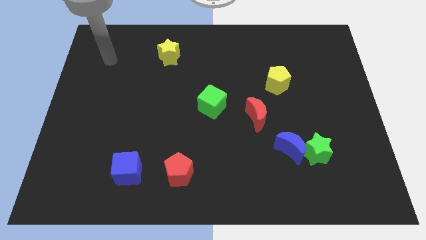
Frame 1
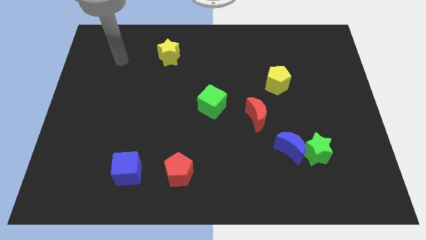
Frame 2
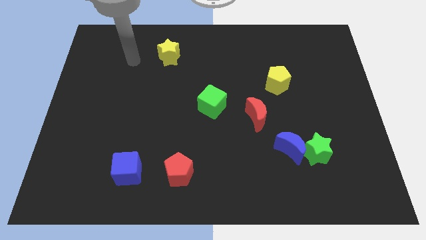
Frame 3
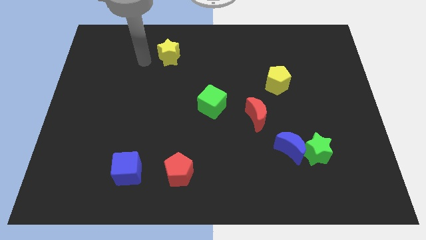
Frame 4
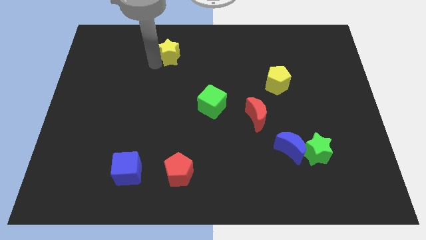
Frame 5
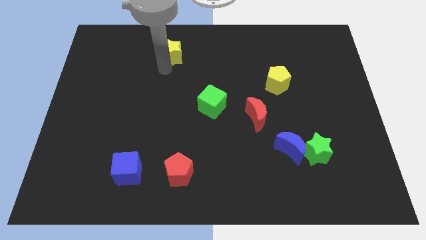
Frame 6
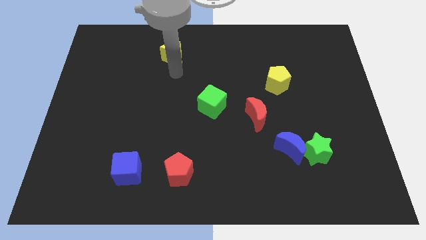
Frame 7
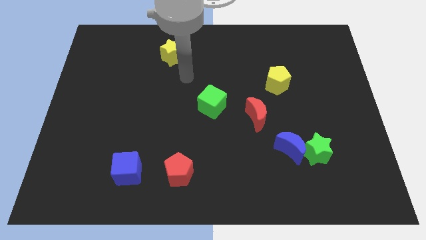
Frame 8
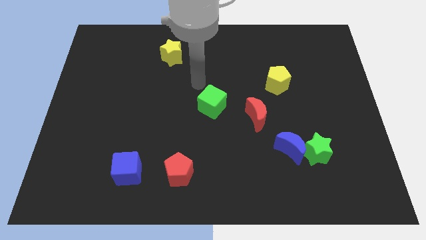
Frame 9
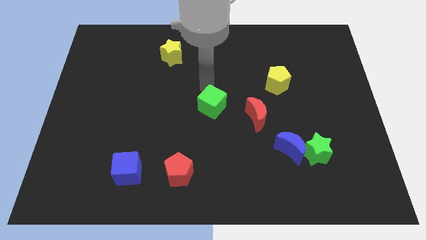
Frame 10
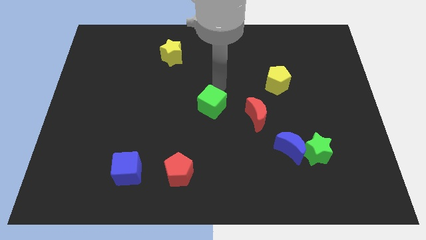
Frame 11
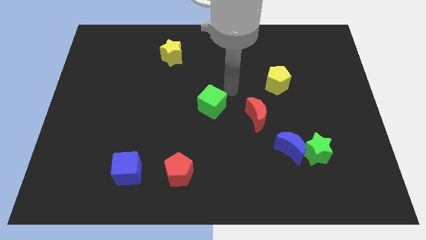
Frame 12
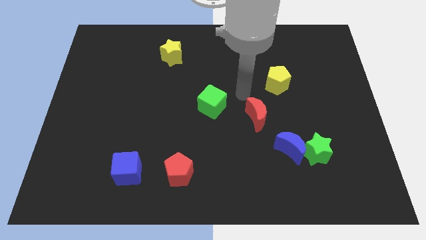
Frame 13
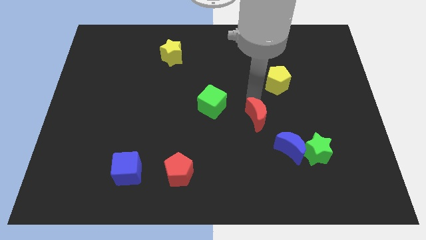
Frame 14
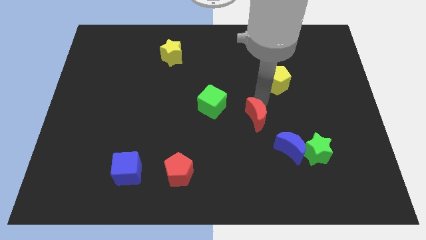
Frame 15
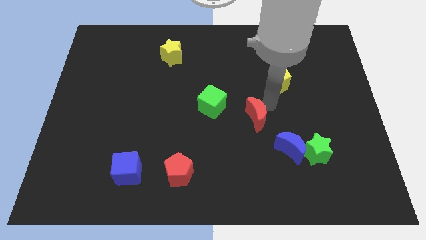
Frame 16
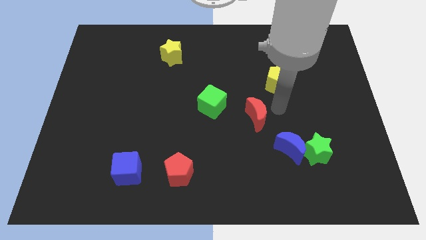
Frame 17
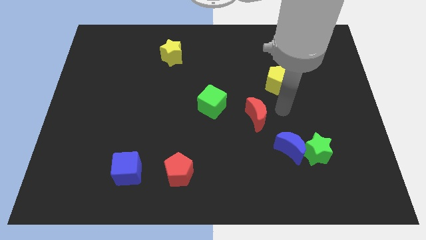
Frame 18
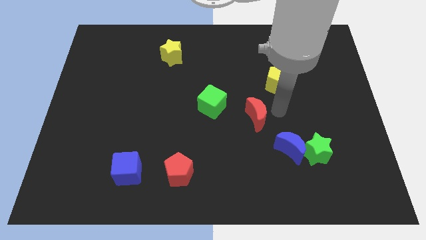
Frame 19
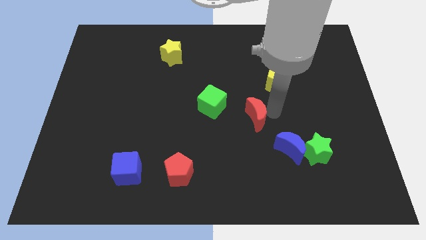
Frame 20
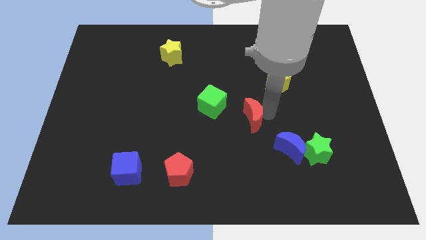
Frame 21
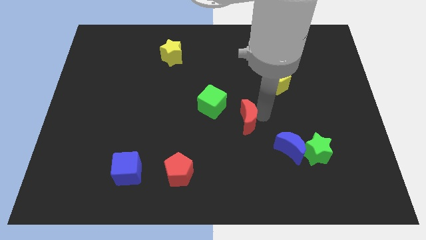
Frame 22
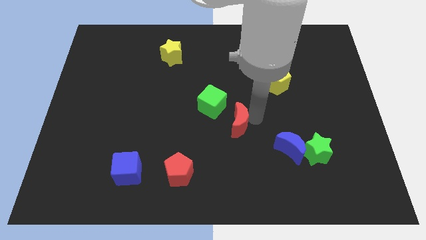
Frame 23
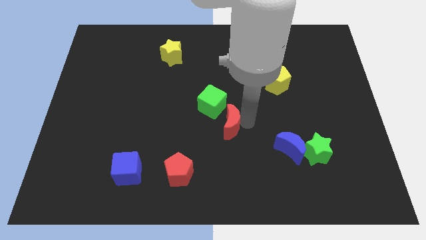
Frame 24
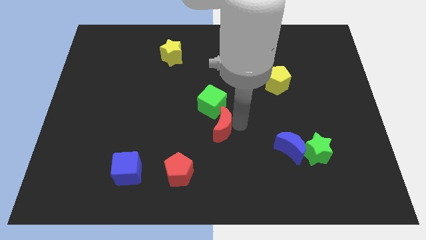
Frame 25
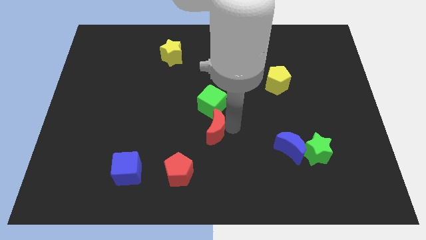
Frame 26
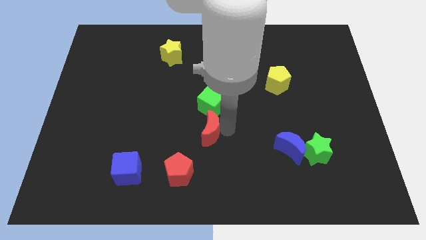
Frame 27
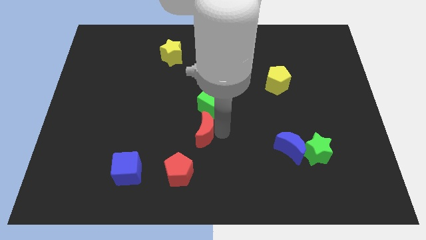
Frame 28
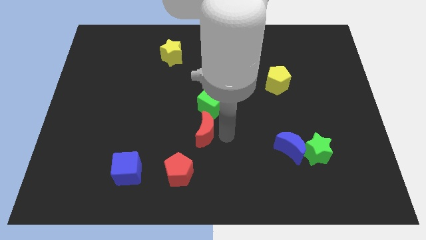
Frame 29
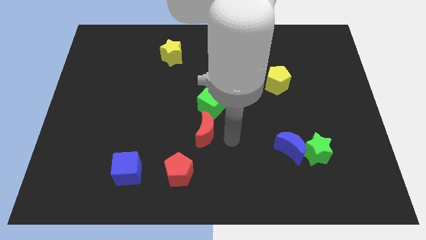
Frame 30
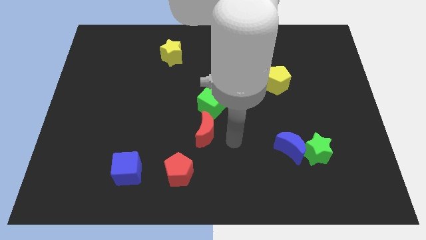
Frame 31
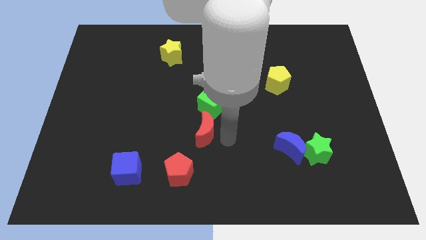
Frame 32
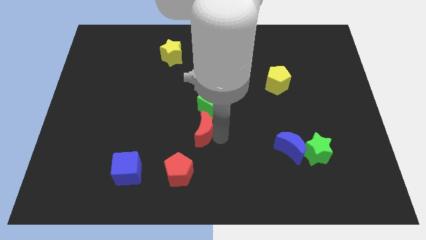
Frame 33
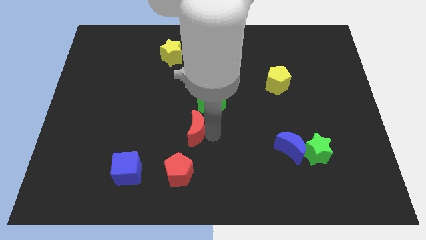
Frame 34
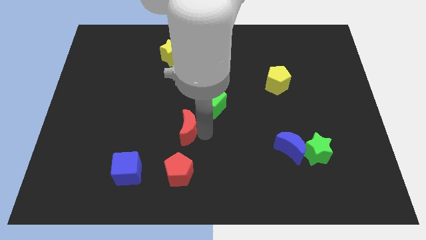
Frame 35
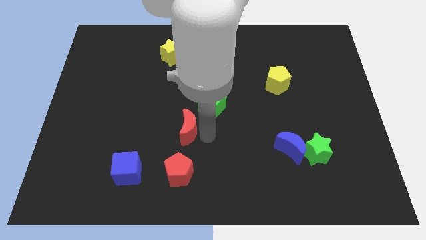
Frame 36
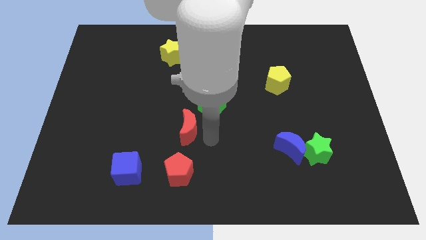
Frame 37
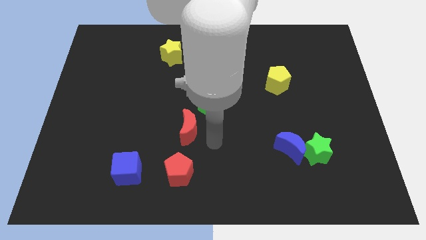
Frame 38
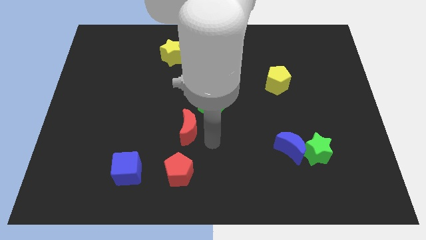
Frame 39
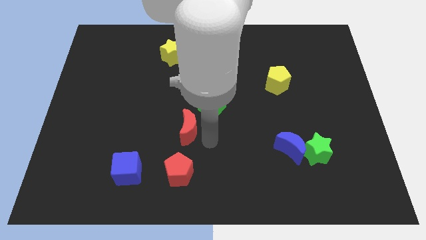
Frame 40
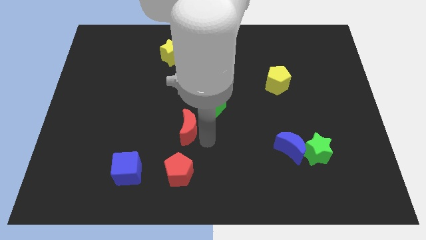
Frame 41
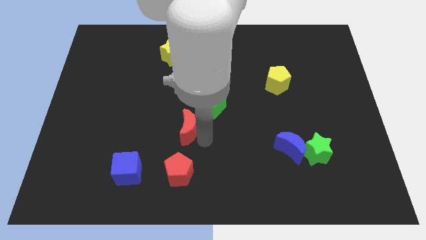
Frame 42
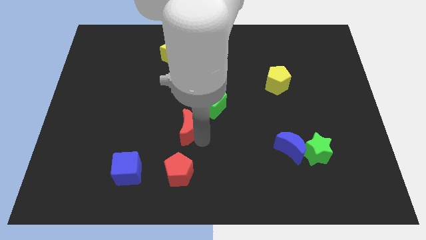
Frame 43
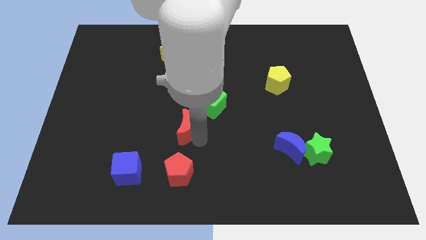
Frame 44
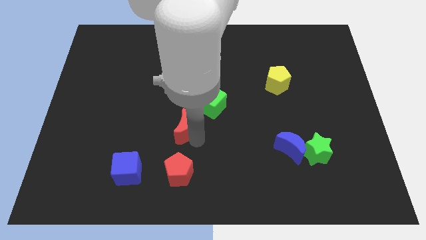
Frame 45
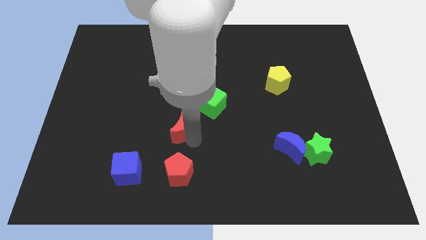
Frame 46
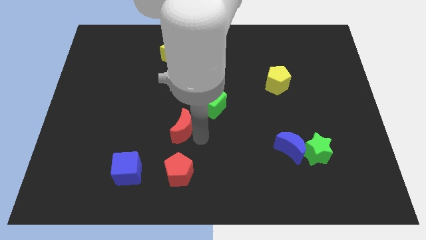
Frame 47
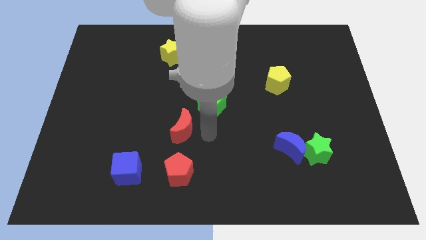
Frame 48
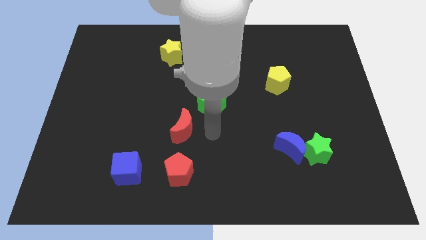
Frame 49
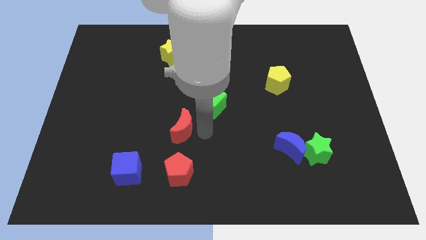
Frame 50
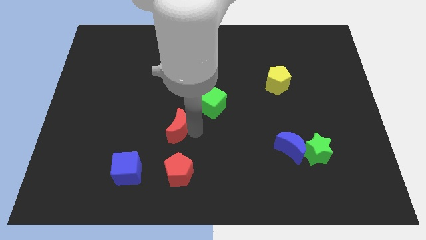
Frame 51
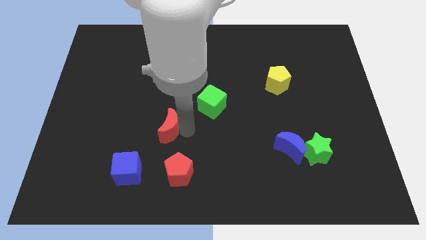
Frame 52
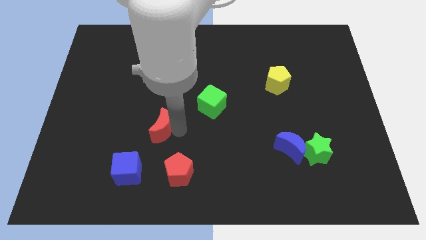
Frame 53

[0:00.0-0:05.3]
push the red moon to the left

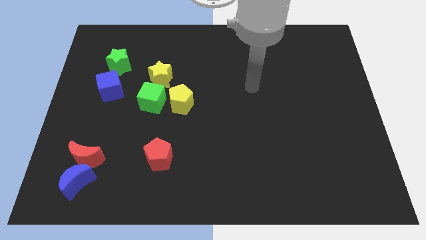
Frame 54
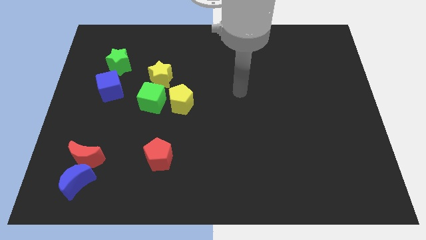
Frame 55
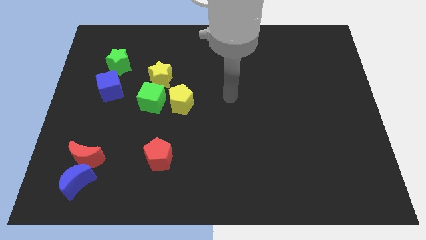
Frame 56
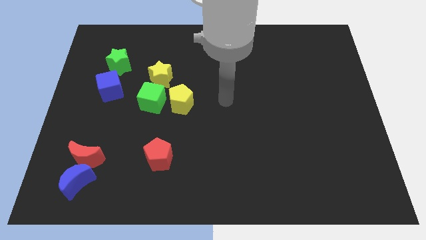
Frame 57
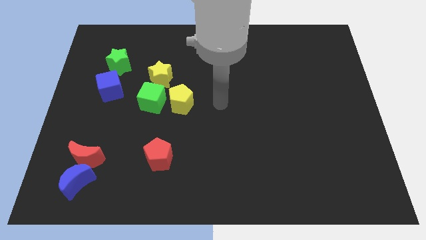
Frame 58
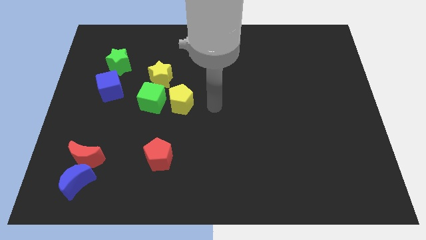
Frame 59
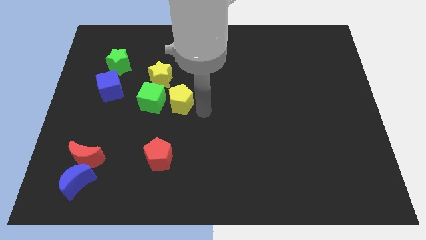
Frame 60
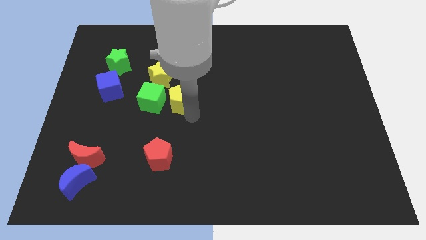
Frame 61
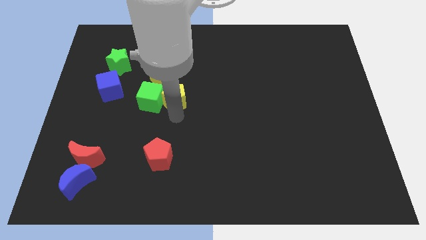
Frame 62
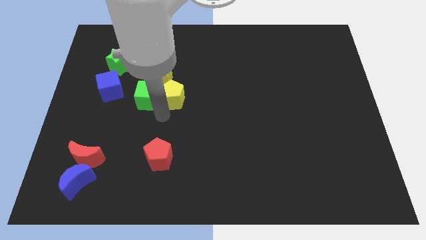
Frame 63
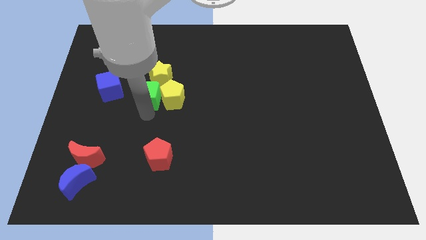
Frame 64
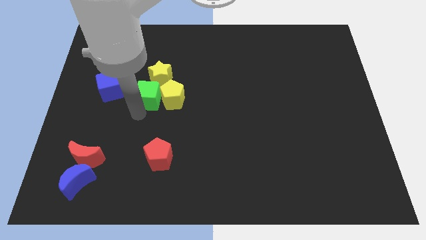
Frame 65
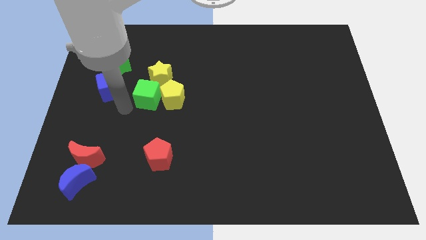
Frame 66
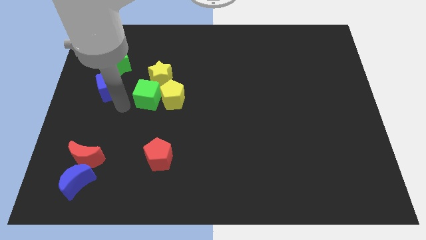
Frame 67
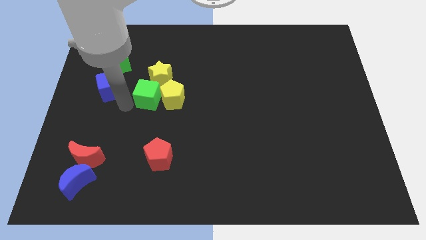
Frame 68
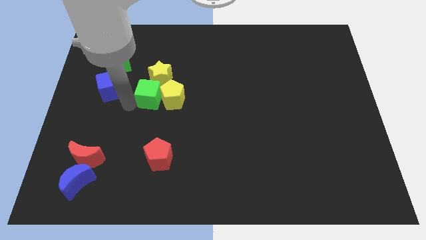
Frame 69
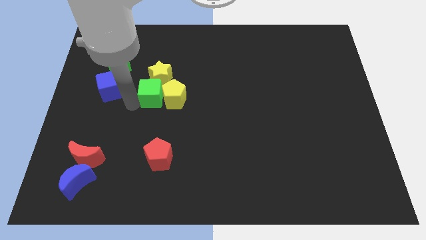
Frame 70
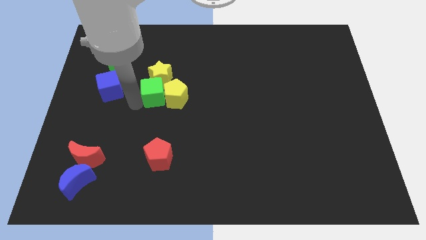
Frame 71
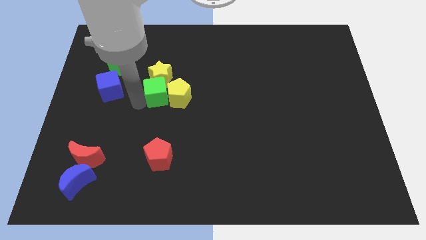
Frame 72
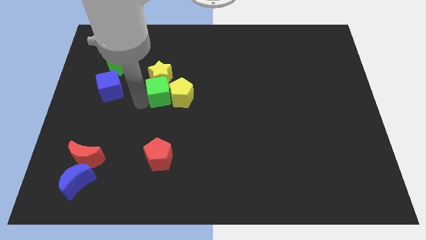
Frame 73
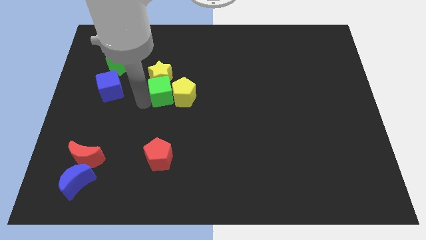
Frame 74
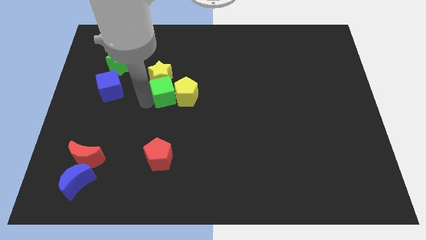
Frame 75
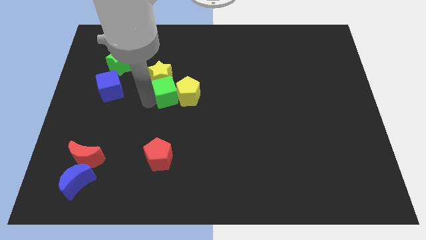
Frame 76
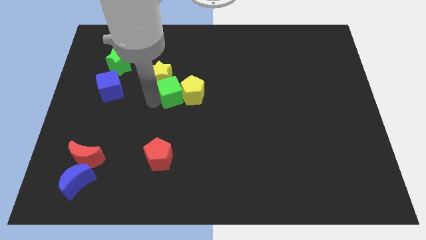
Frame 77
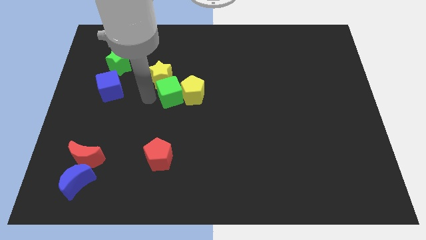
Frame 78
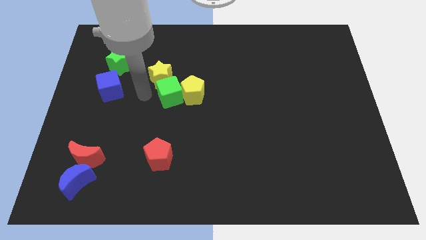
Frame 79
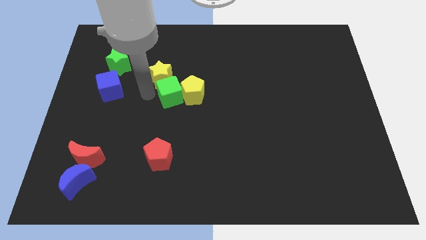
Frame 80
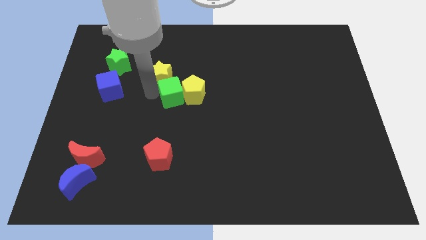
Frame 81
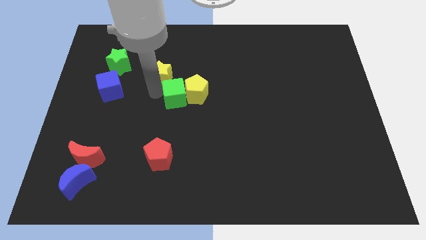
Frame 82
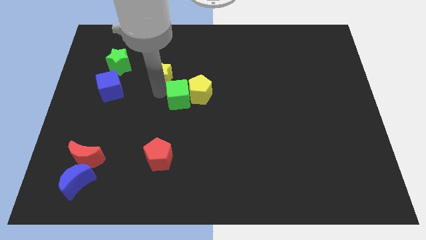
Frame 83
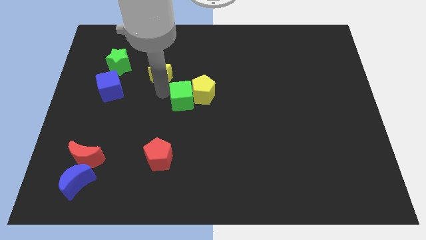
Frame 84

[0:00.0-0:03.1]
slightly slide the green cube to the right
